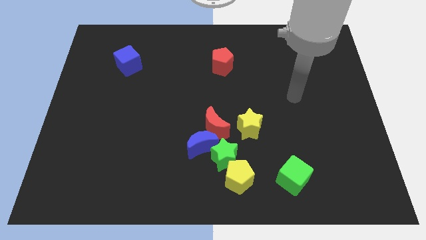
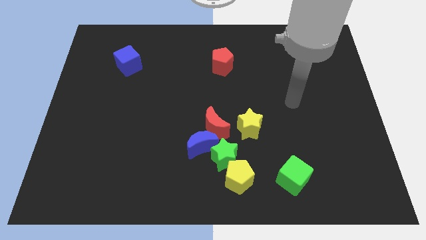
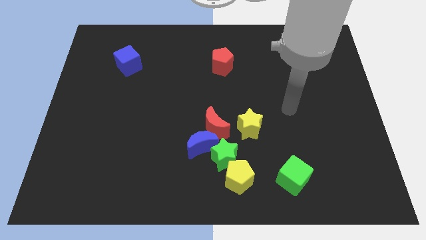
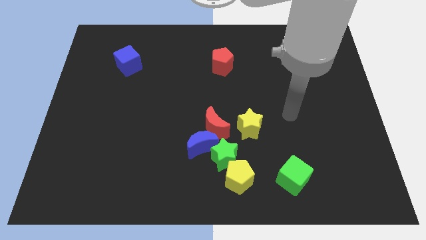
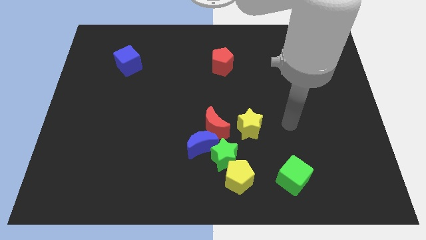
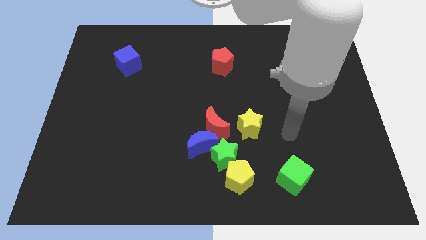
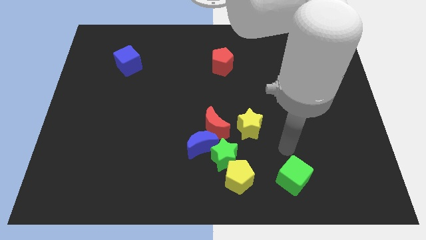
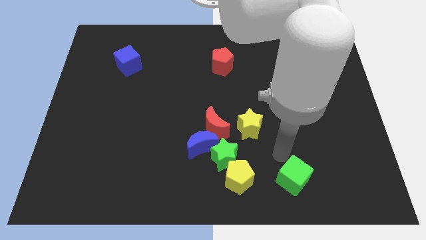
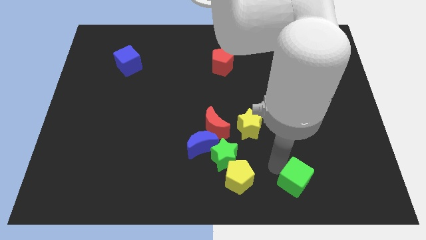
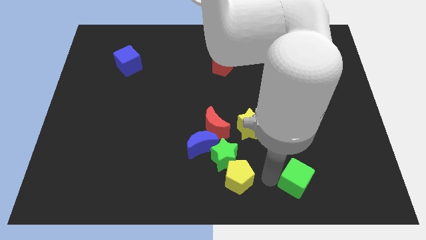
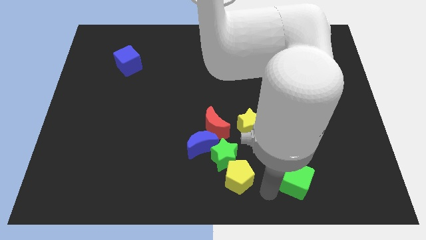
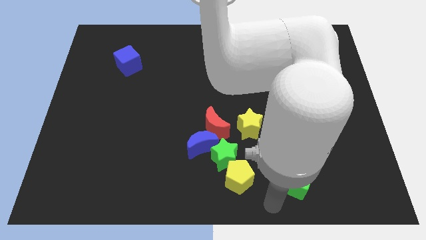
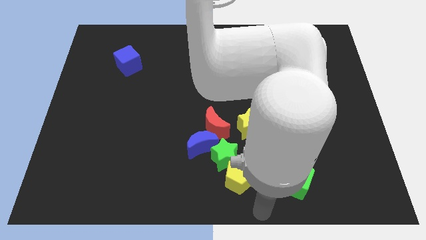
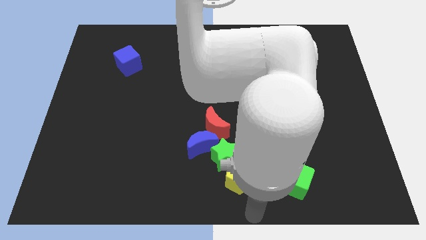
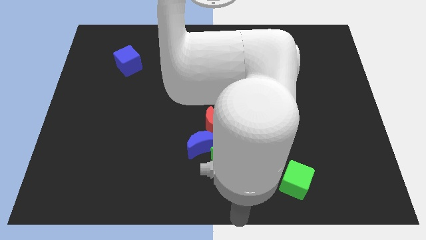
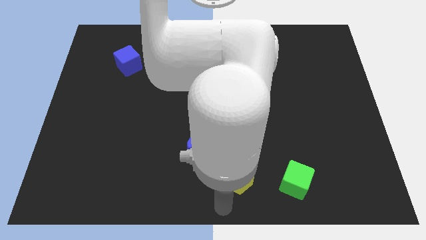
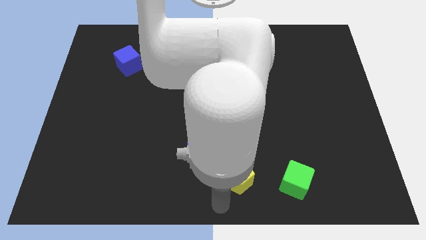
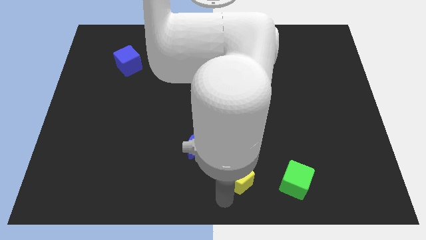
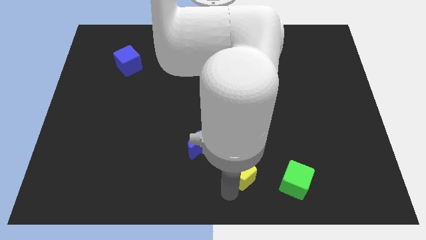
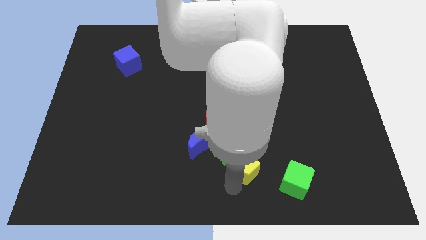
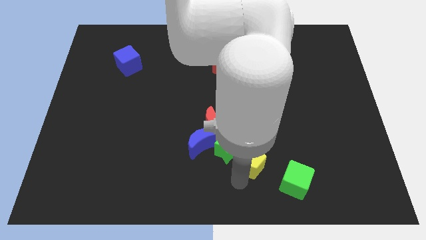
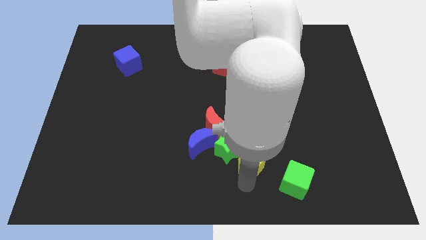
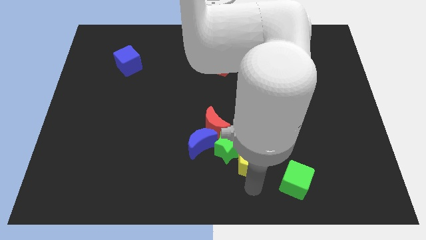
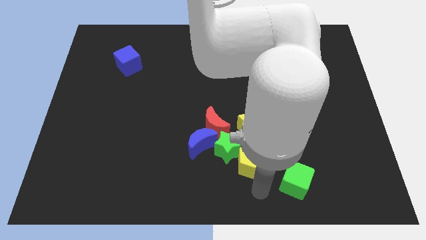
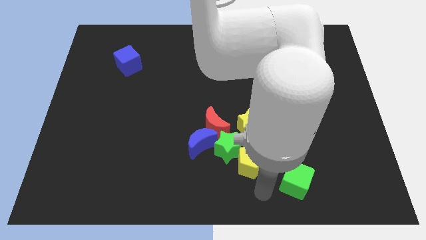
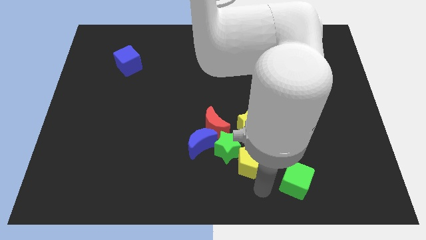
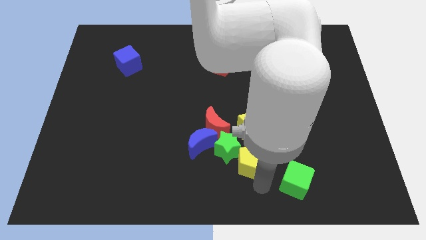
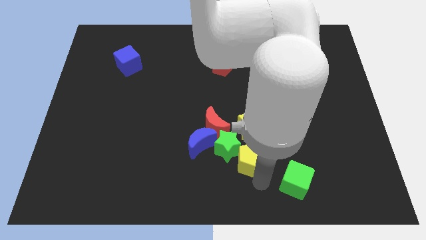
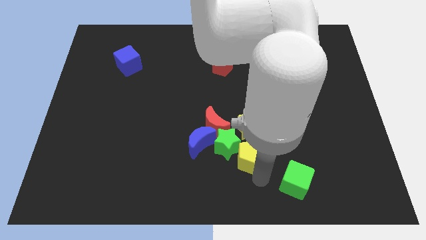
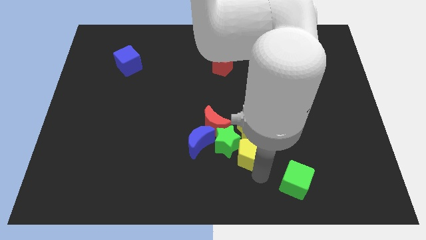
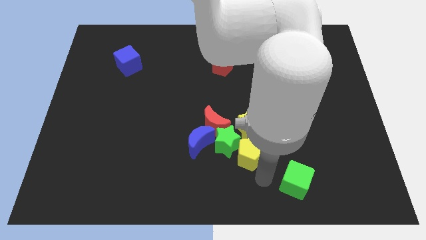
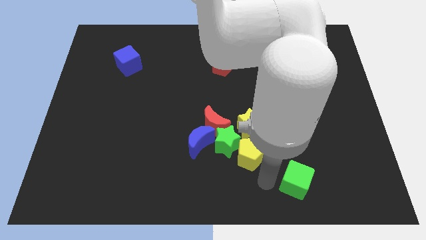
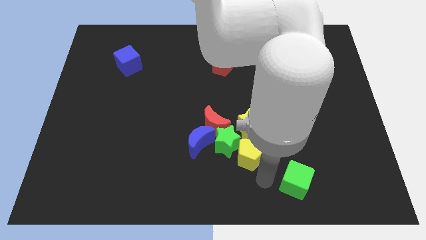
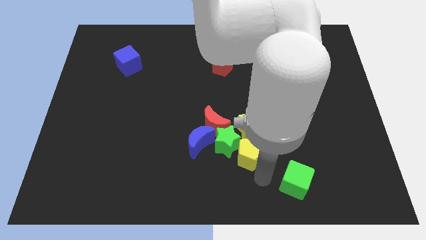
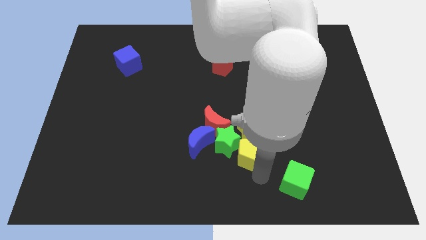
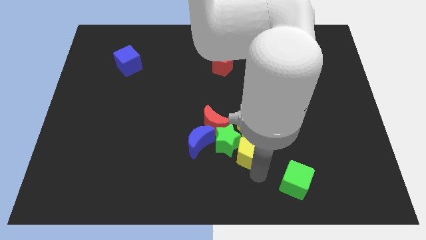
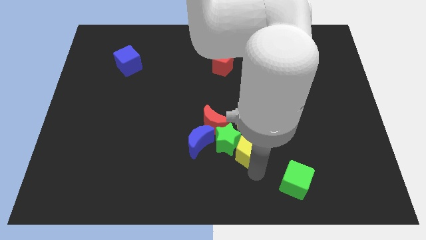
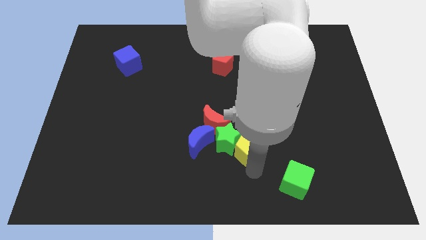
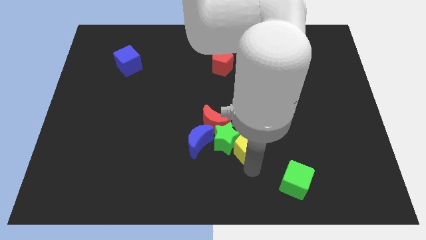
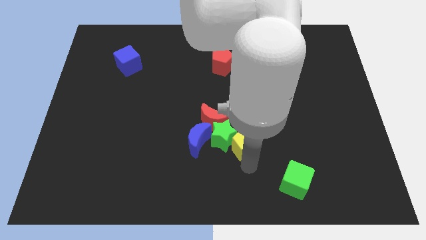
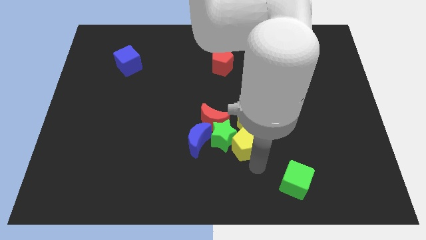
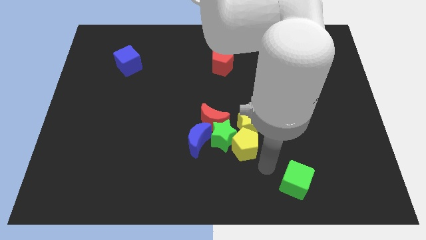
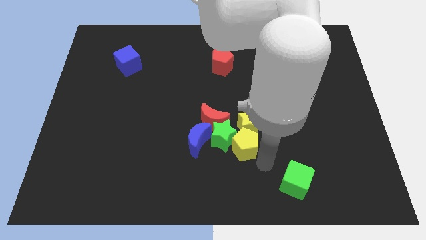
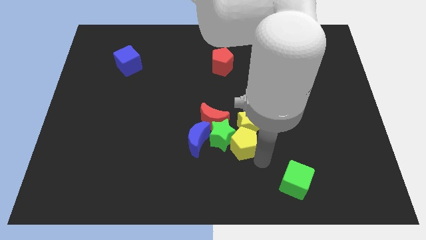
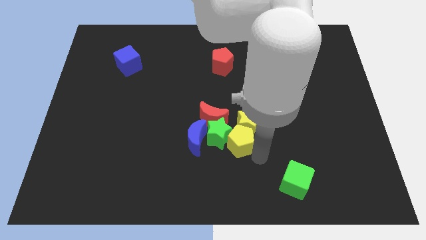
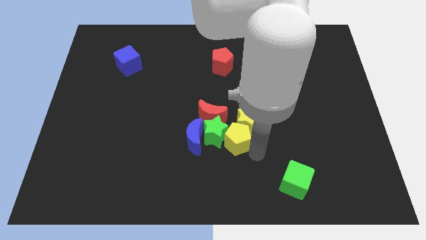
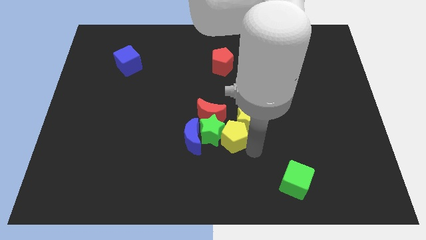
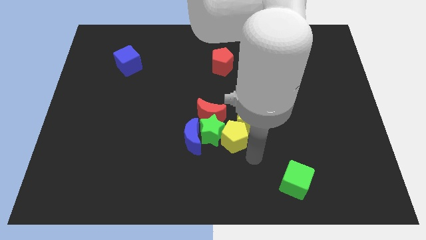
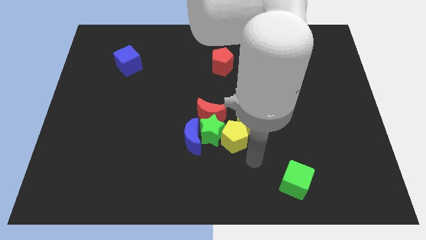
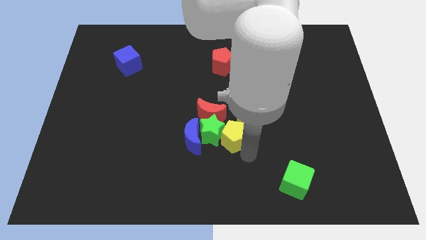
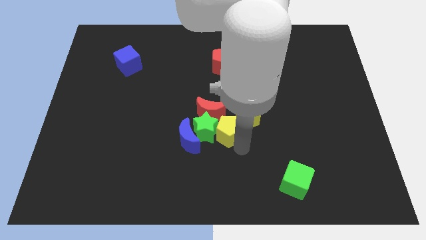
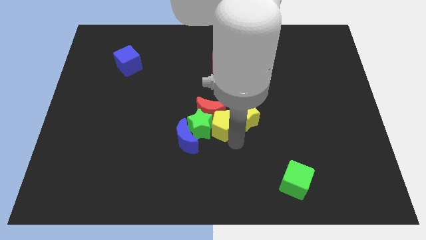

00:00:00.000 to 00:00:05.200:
slide the yellow pentagon close to the red moon

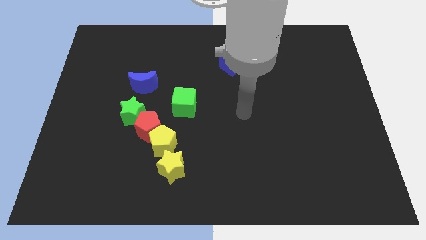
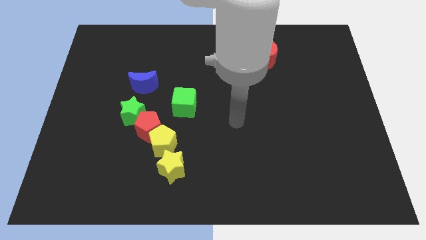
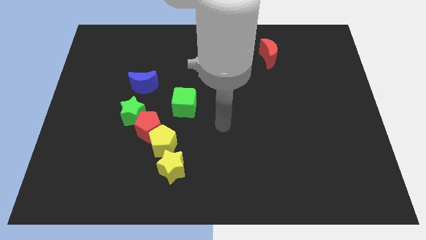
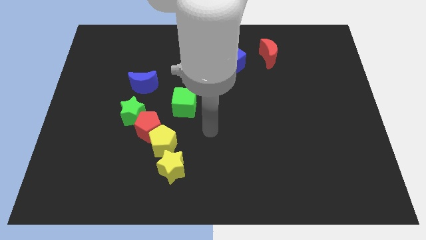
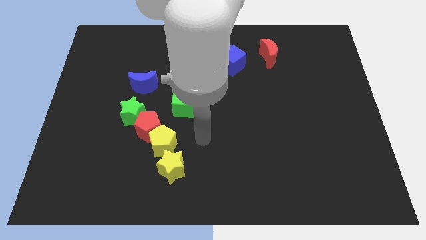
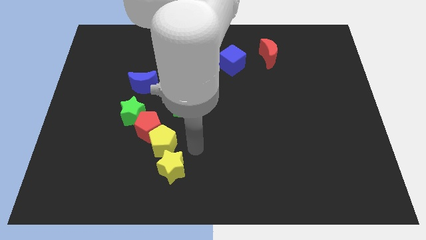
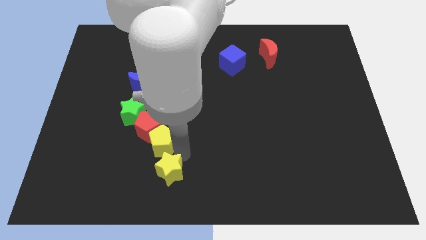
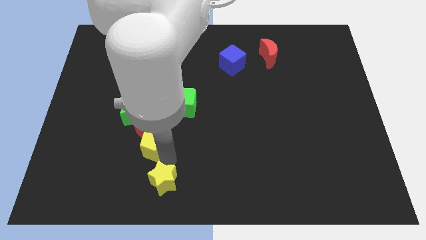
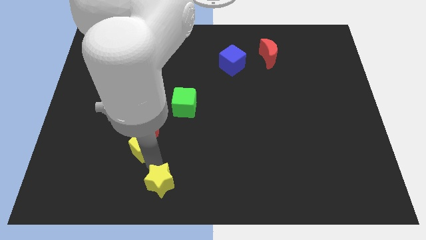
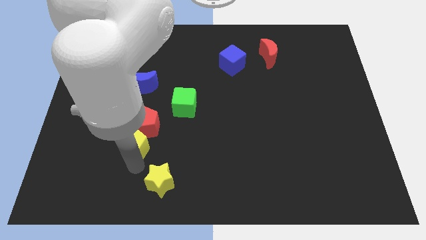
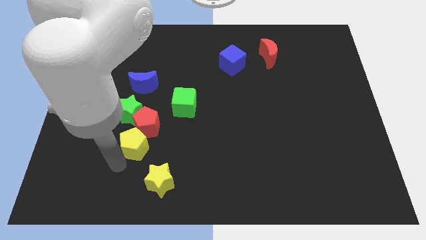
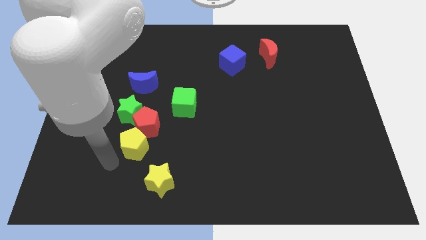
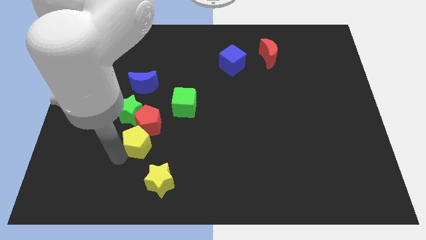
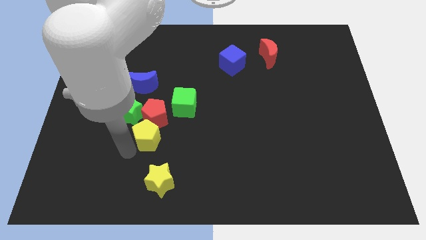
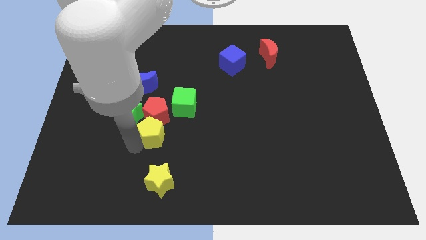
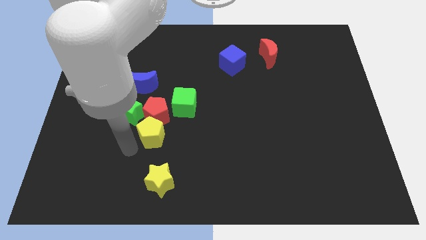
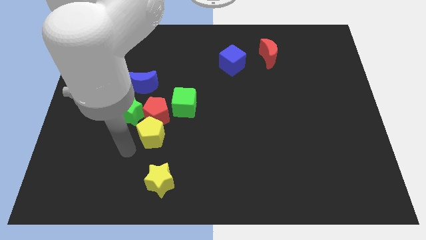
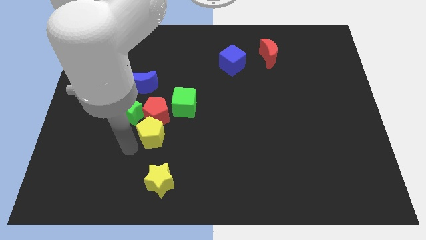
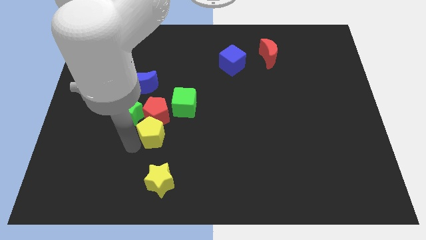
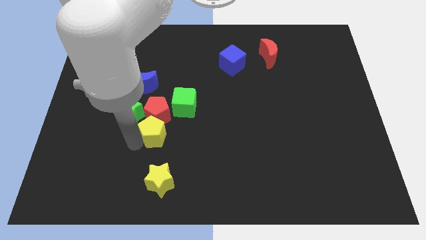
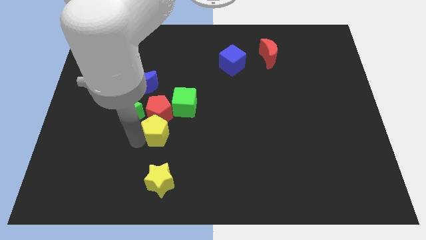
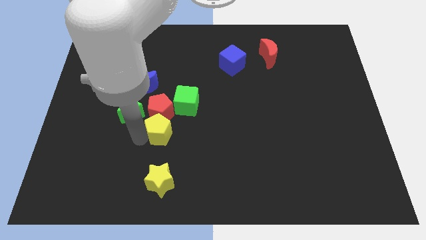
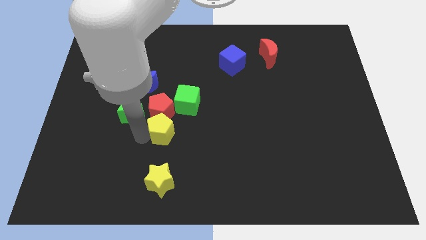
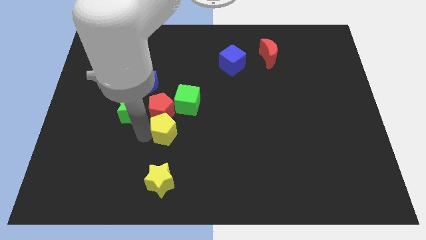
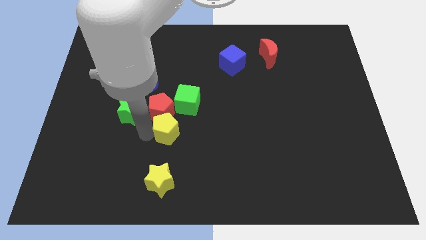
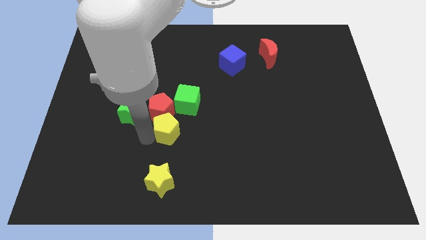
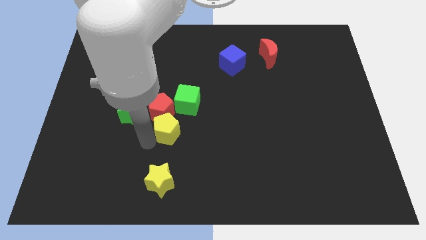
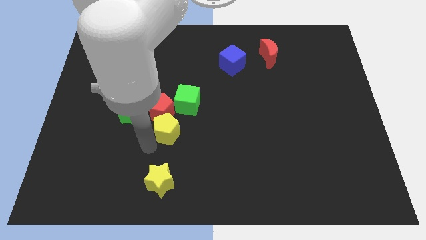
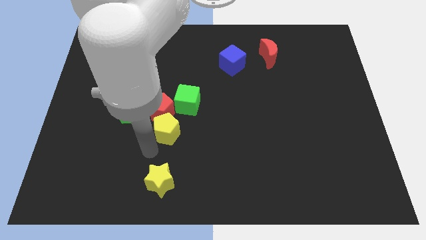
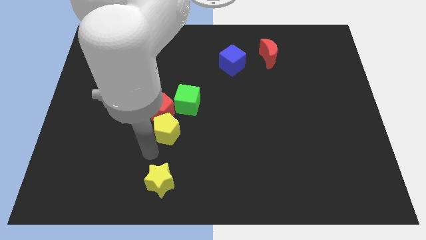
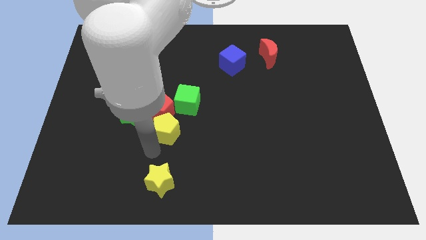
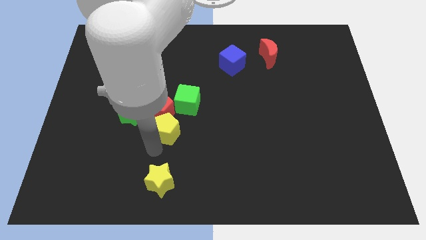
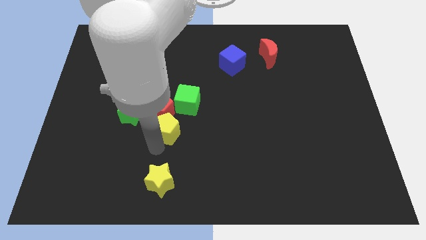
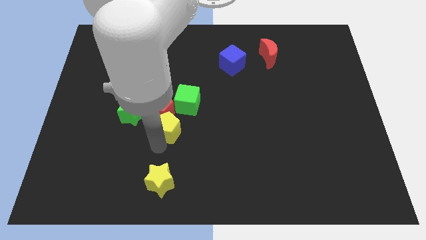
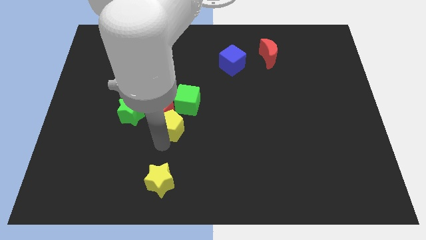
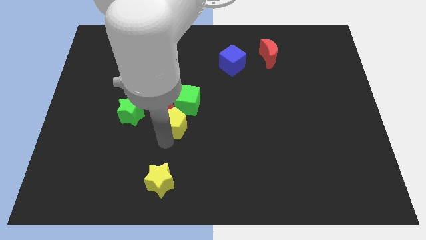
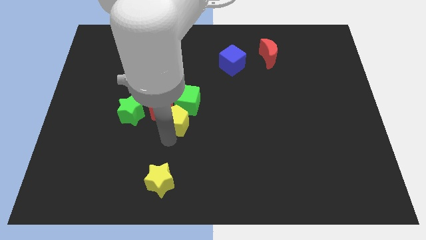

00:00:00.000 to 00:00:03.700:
move the yellow pentagon next to the green cube
